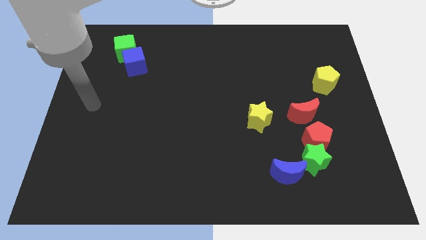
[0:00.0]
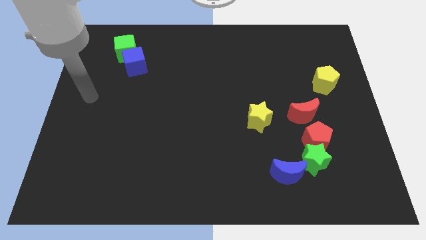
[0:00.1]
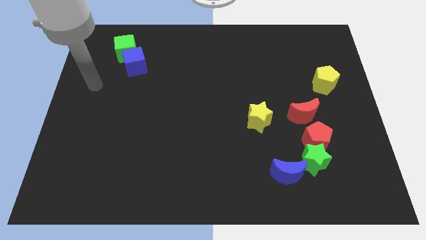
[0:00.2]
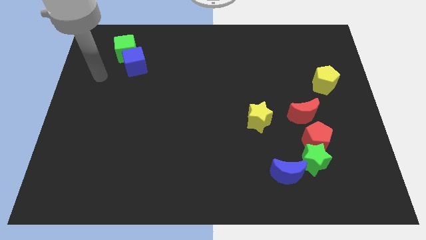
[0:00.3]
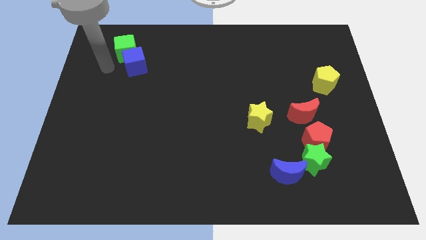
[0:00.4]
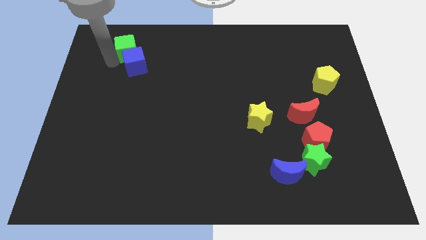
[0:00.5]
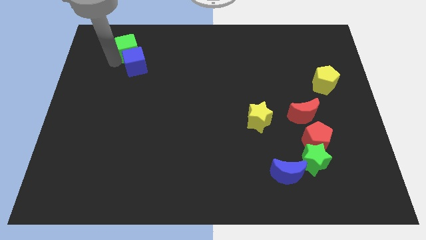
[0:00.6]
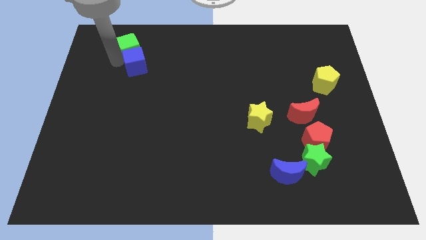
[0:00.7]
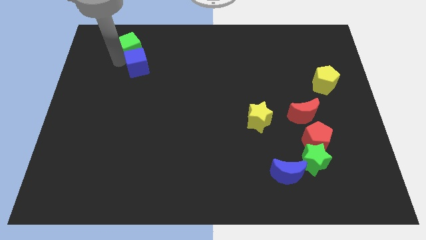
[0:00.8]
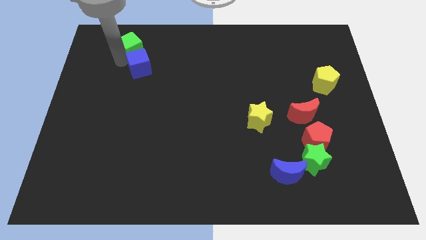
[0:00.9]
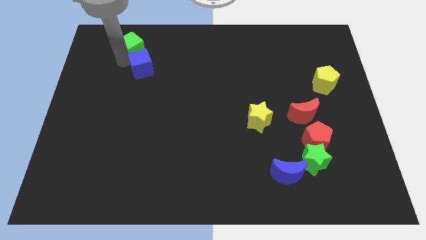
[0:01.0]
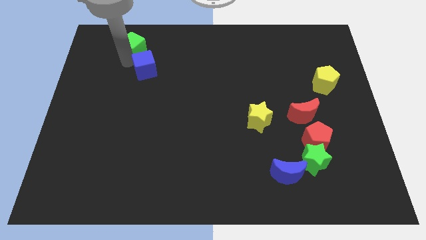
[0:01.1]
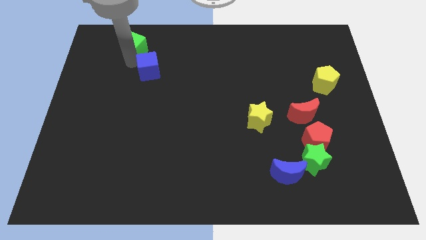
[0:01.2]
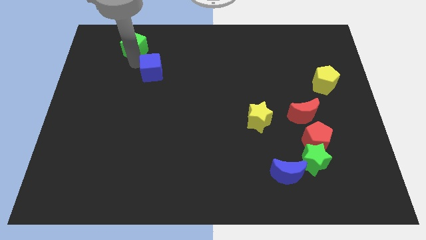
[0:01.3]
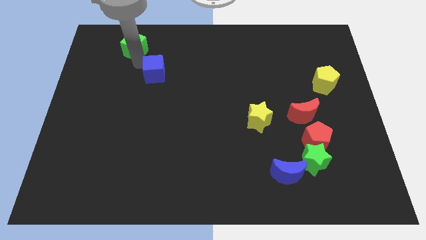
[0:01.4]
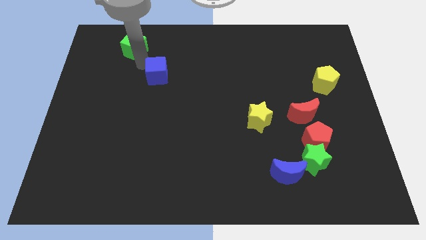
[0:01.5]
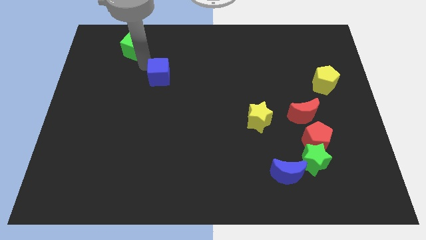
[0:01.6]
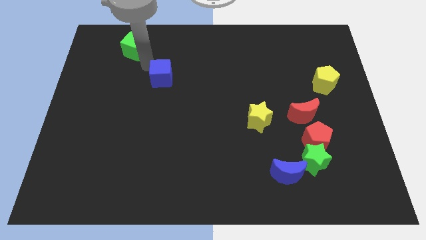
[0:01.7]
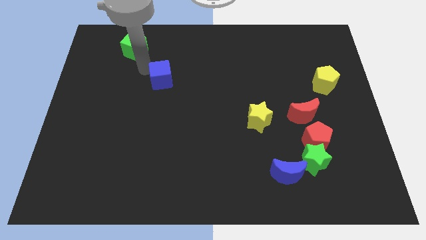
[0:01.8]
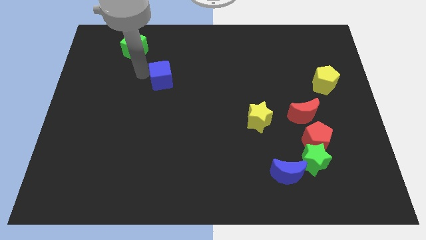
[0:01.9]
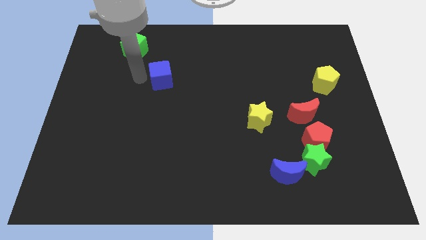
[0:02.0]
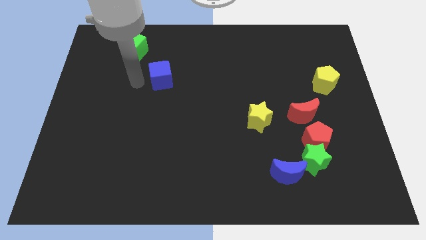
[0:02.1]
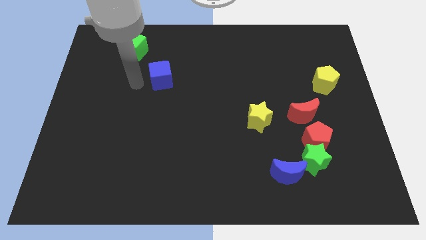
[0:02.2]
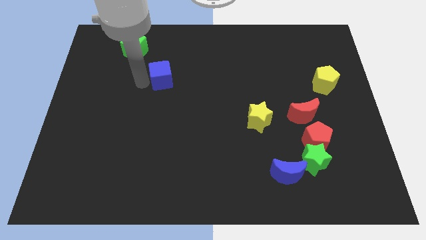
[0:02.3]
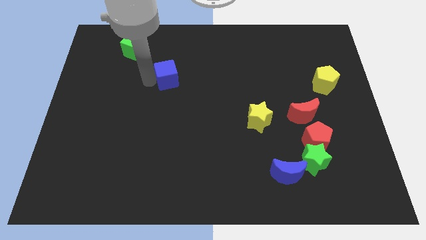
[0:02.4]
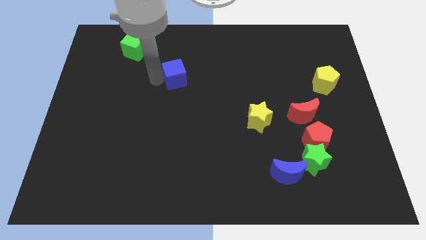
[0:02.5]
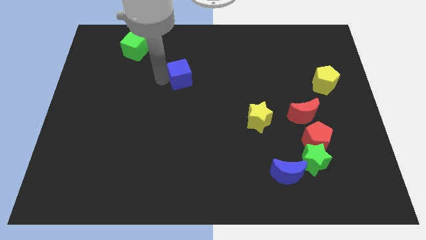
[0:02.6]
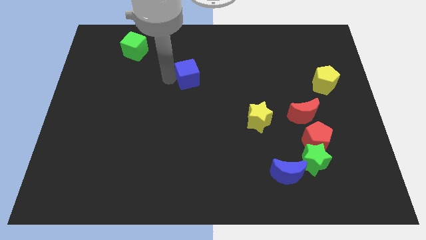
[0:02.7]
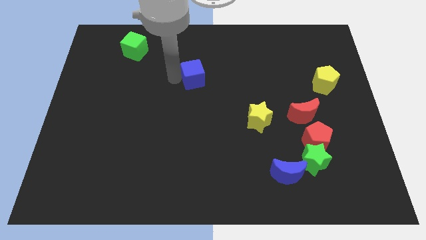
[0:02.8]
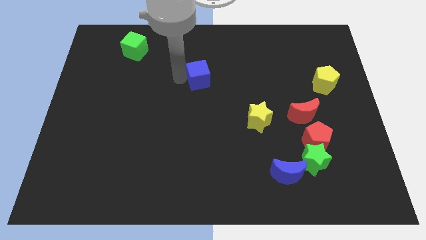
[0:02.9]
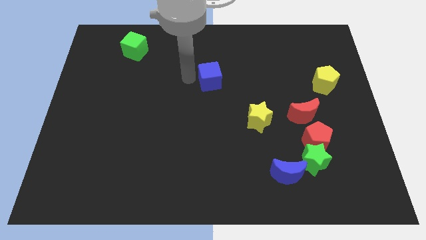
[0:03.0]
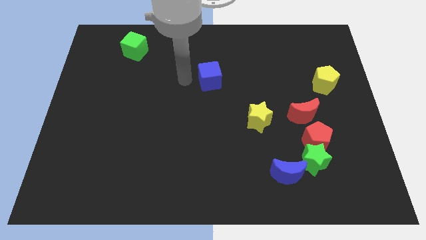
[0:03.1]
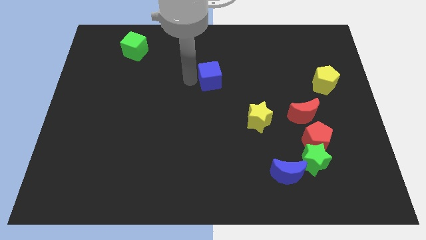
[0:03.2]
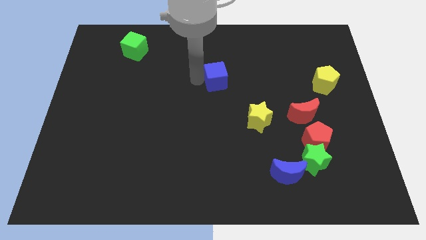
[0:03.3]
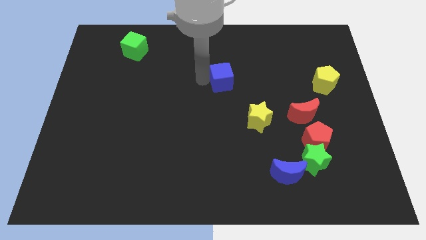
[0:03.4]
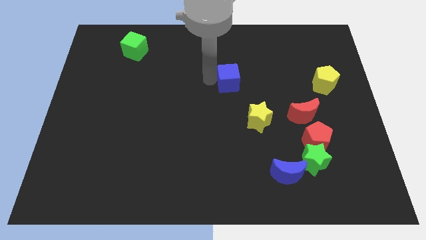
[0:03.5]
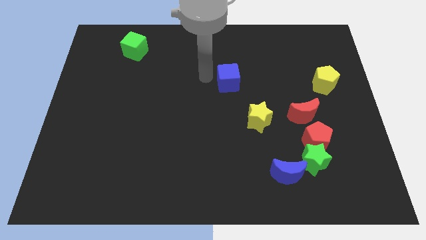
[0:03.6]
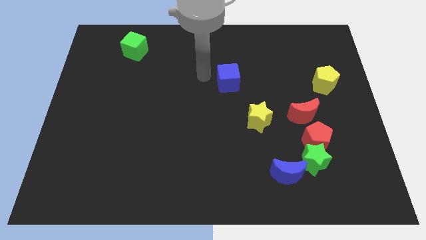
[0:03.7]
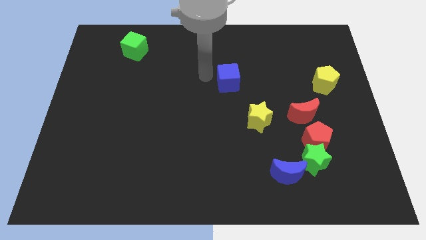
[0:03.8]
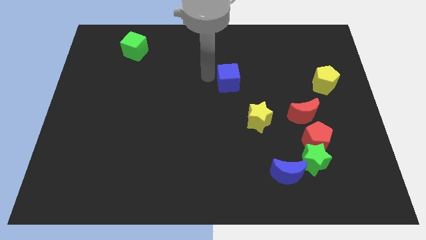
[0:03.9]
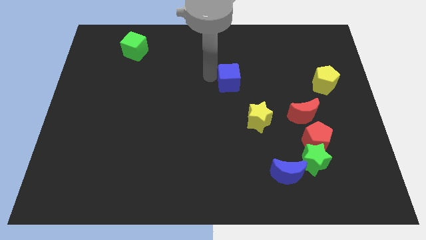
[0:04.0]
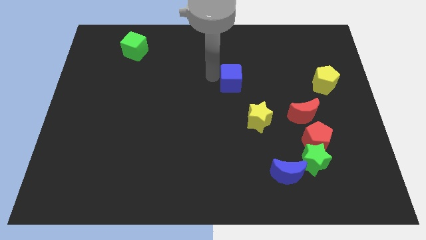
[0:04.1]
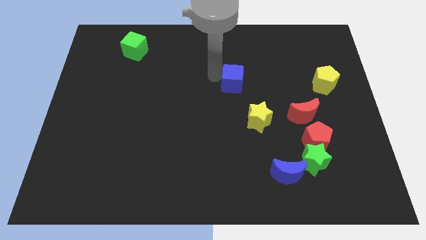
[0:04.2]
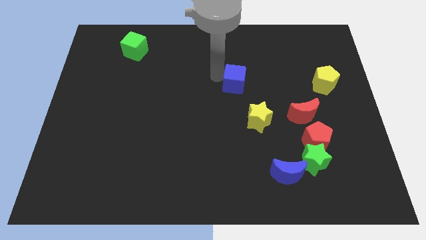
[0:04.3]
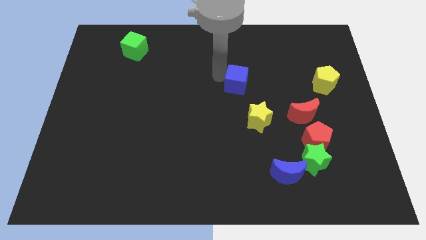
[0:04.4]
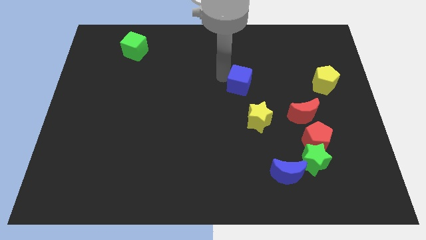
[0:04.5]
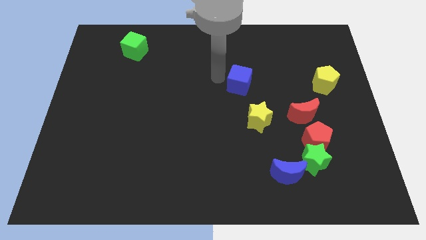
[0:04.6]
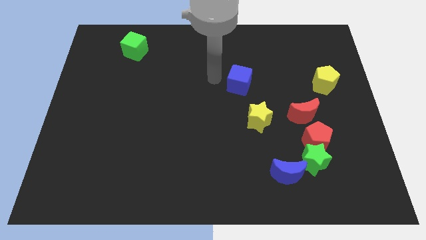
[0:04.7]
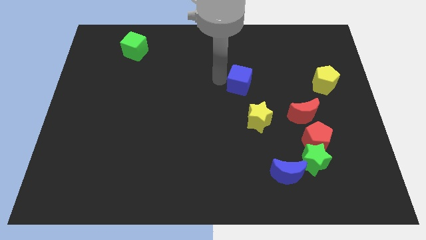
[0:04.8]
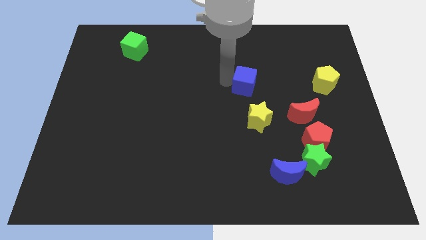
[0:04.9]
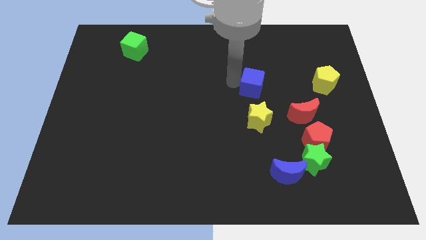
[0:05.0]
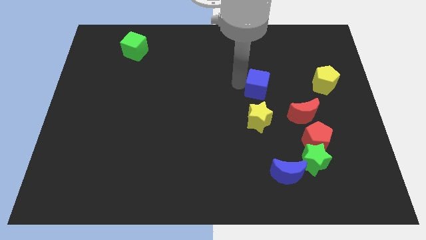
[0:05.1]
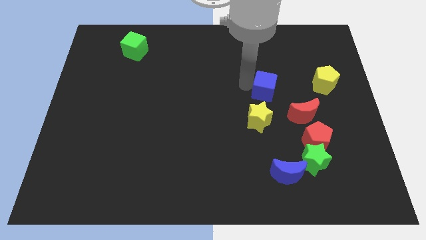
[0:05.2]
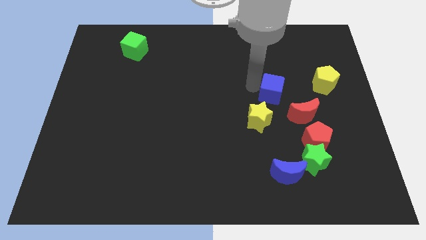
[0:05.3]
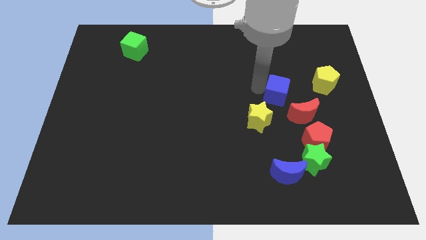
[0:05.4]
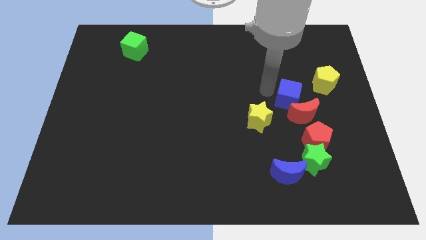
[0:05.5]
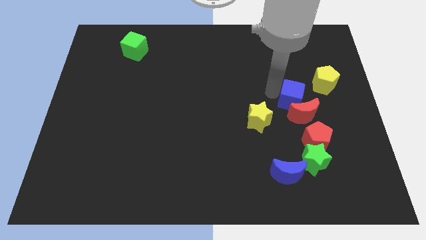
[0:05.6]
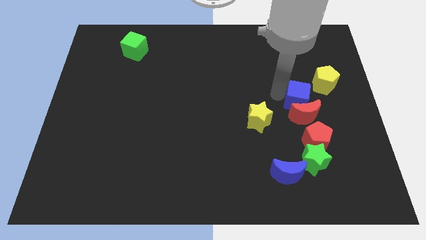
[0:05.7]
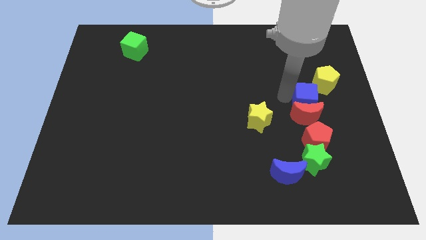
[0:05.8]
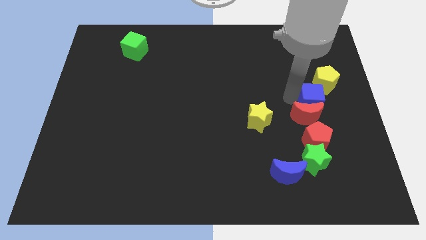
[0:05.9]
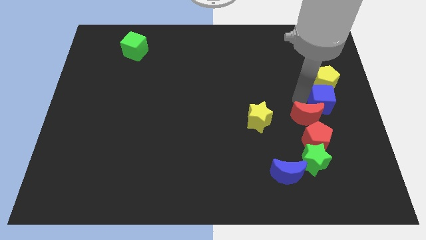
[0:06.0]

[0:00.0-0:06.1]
slide the blue cube to the right side
